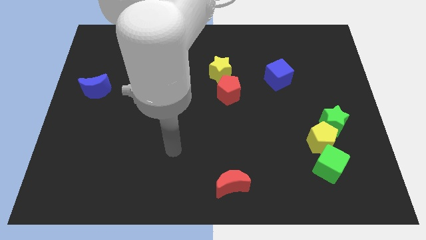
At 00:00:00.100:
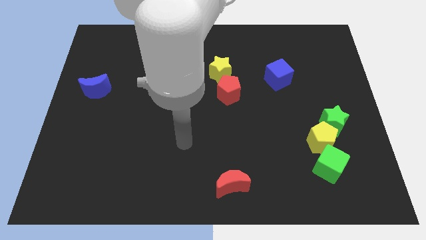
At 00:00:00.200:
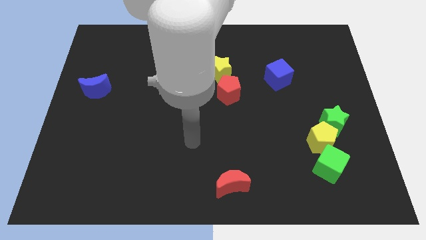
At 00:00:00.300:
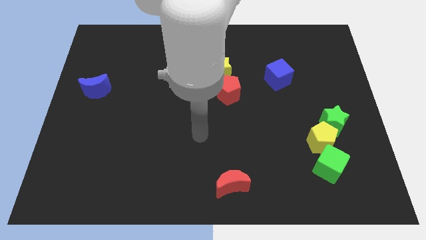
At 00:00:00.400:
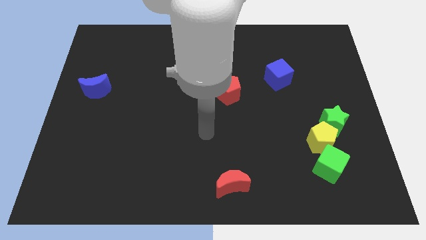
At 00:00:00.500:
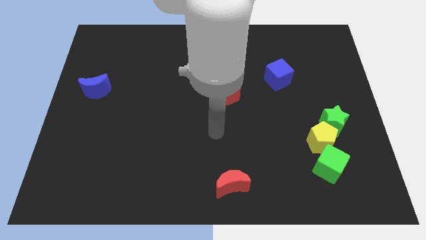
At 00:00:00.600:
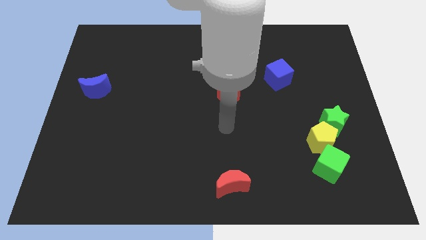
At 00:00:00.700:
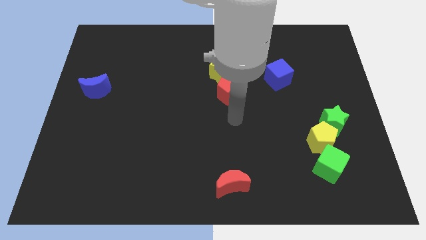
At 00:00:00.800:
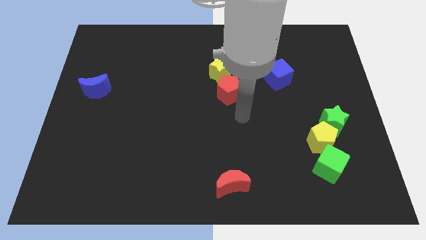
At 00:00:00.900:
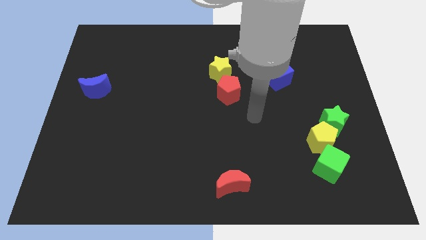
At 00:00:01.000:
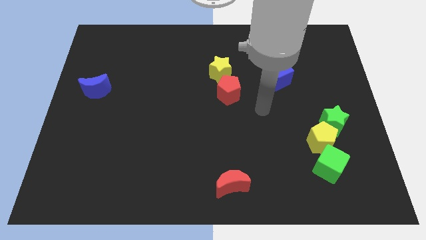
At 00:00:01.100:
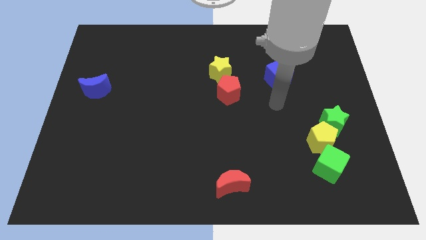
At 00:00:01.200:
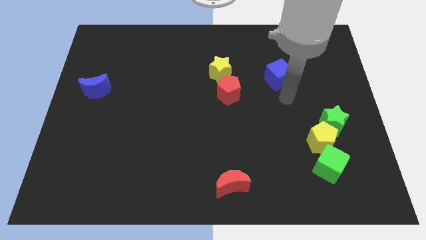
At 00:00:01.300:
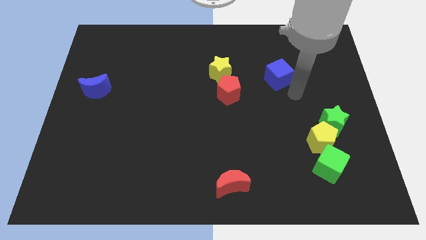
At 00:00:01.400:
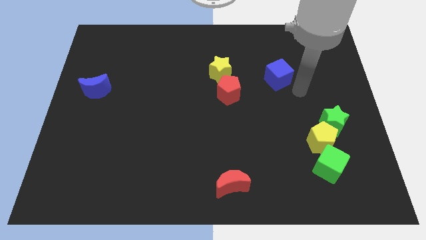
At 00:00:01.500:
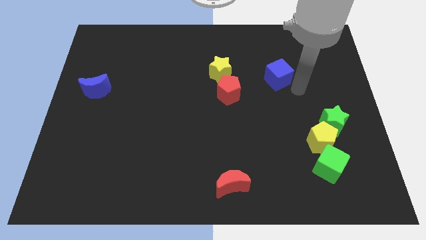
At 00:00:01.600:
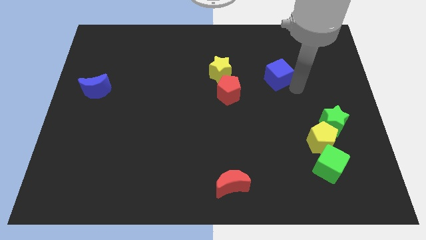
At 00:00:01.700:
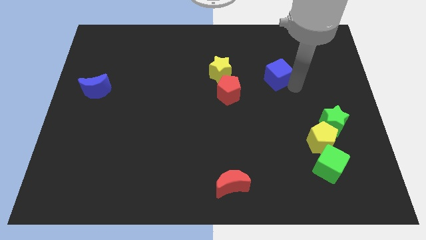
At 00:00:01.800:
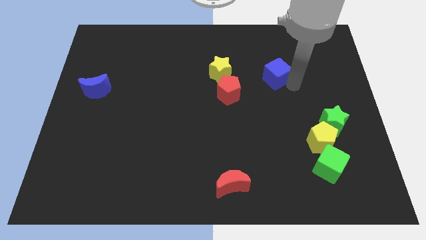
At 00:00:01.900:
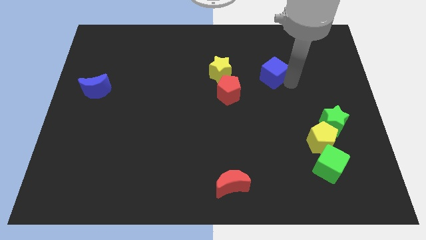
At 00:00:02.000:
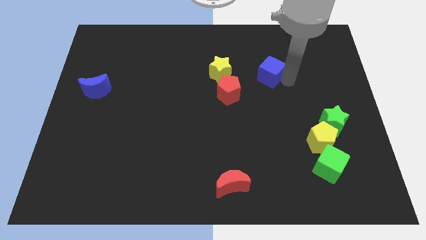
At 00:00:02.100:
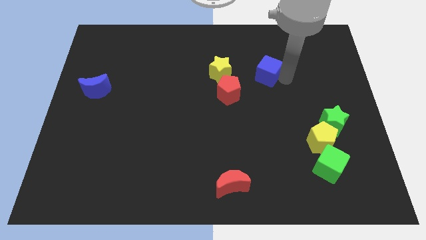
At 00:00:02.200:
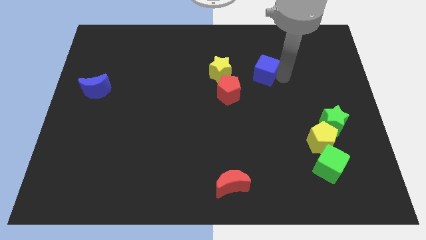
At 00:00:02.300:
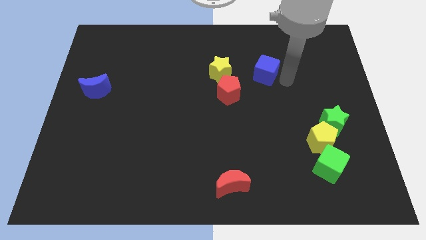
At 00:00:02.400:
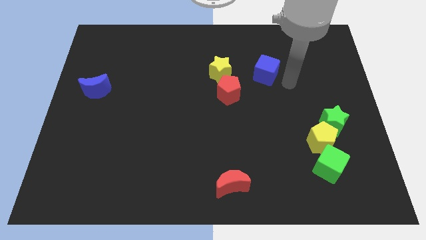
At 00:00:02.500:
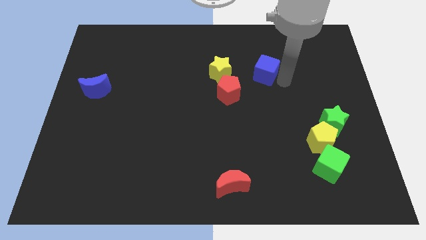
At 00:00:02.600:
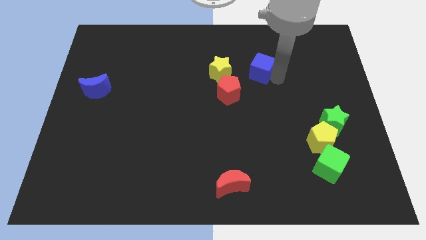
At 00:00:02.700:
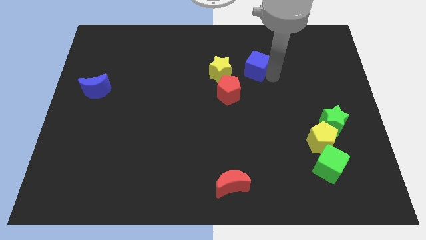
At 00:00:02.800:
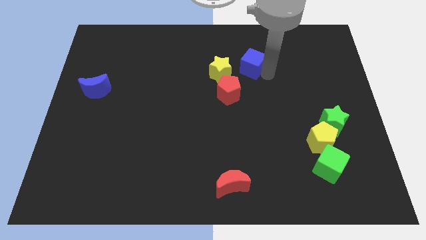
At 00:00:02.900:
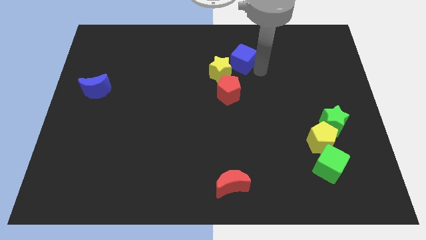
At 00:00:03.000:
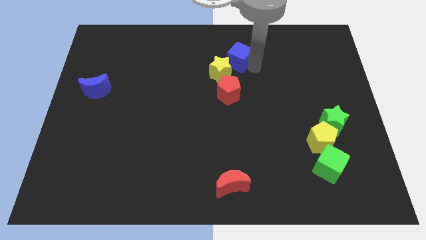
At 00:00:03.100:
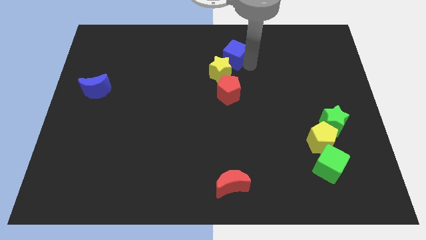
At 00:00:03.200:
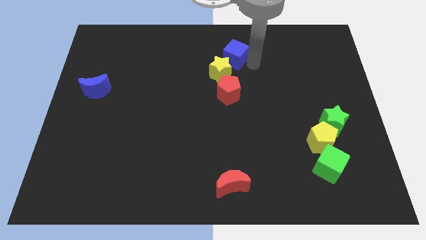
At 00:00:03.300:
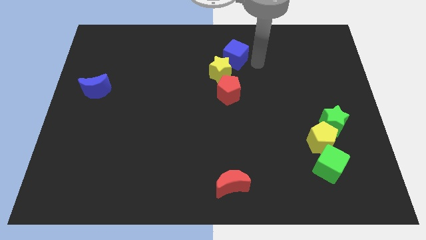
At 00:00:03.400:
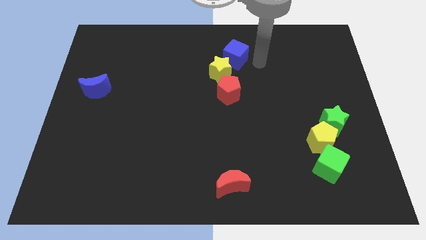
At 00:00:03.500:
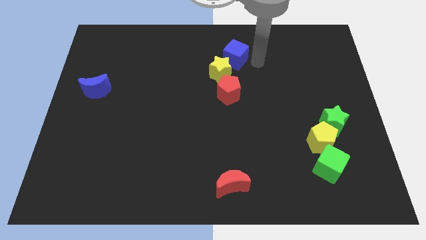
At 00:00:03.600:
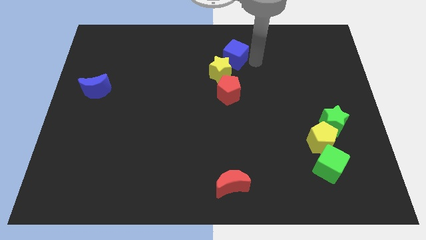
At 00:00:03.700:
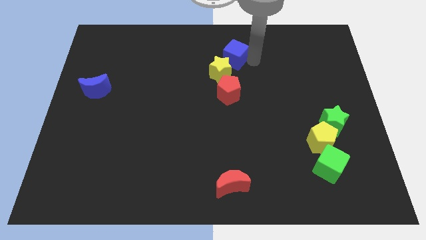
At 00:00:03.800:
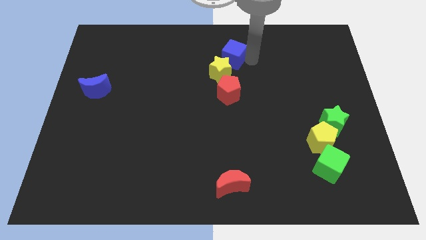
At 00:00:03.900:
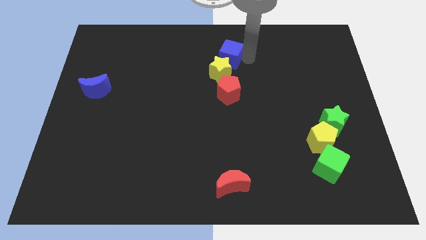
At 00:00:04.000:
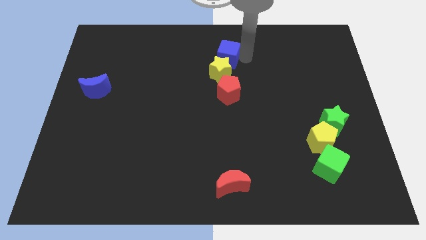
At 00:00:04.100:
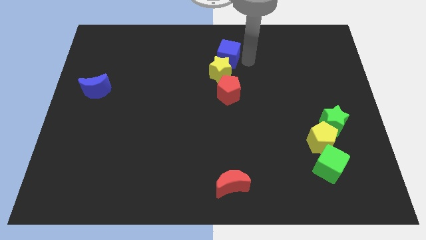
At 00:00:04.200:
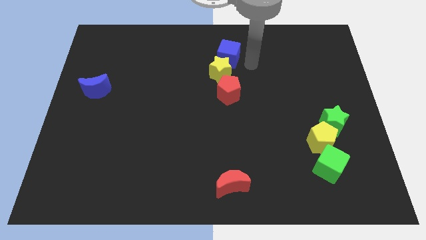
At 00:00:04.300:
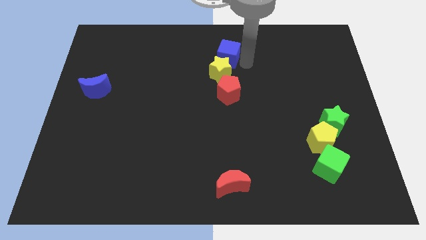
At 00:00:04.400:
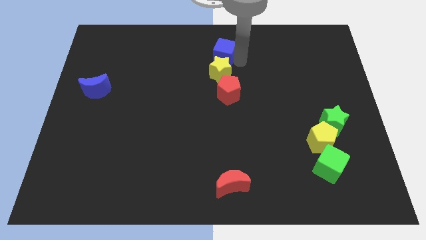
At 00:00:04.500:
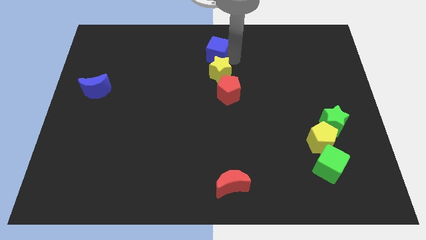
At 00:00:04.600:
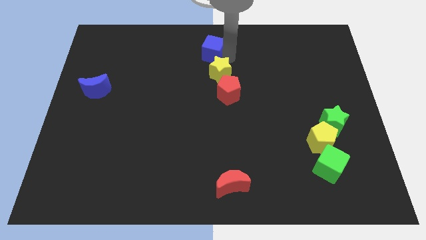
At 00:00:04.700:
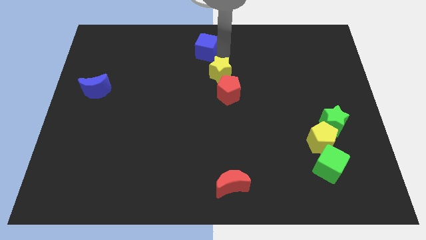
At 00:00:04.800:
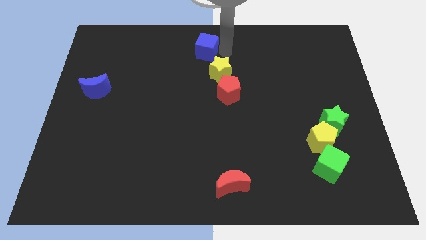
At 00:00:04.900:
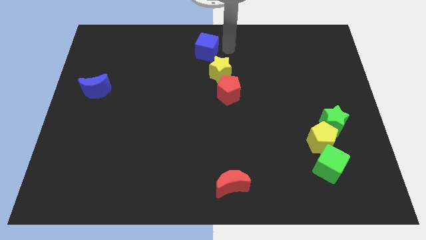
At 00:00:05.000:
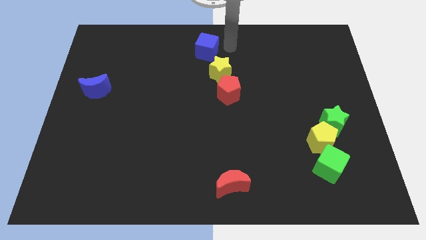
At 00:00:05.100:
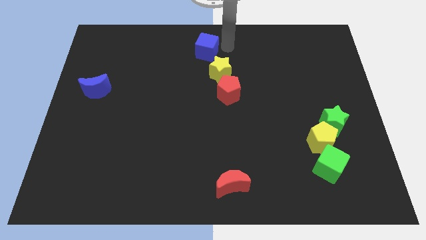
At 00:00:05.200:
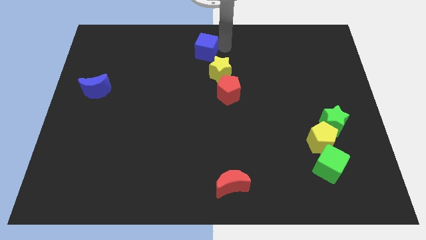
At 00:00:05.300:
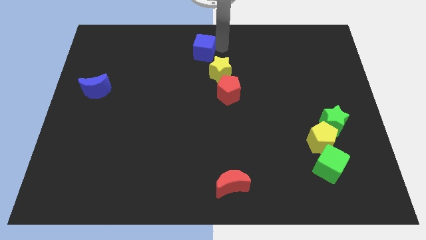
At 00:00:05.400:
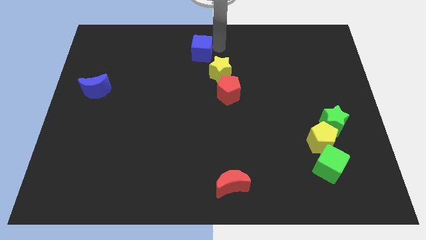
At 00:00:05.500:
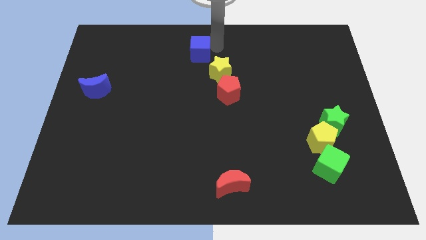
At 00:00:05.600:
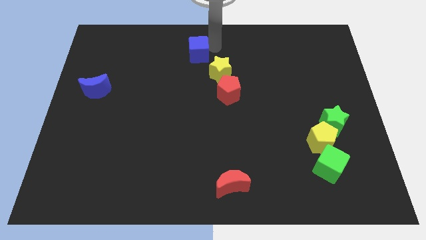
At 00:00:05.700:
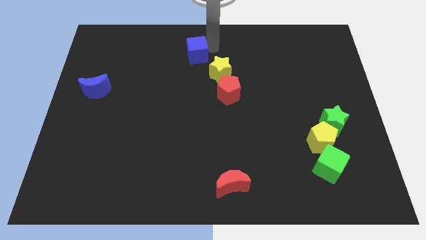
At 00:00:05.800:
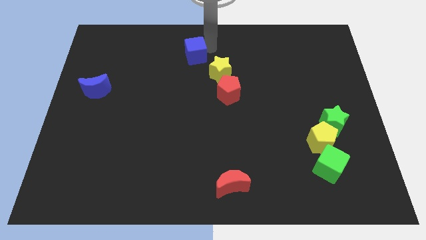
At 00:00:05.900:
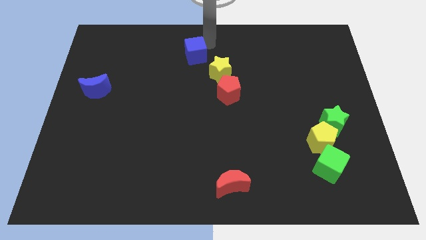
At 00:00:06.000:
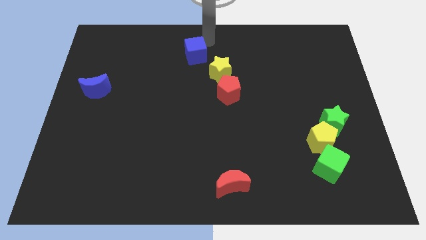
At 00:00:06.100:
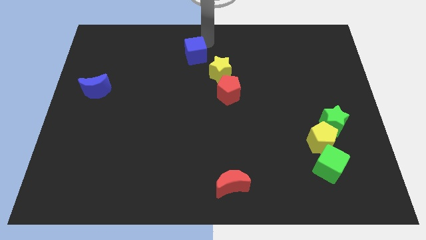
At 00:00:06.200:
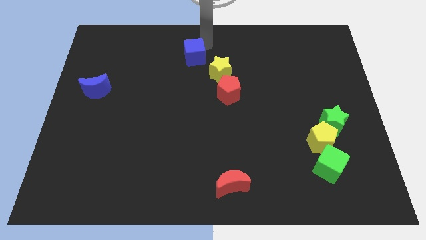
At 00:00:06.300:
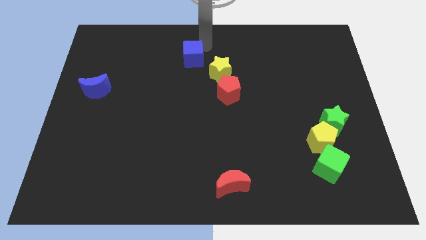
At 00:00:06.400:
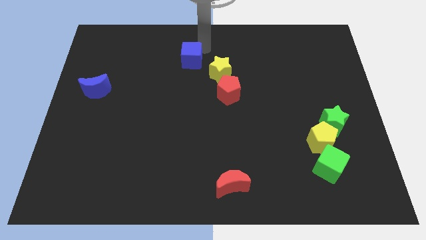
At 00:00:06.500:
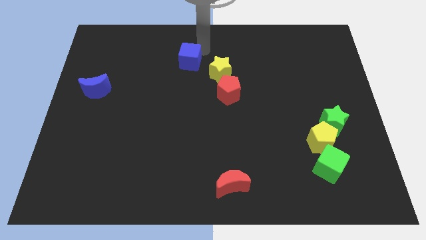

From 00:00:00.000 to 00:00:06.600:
slide the blue cube left of the yellow star

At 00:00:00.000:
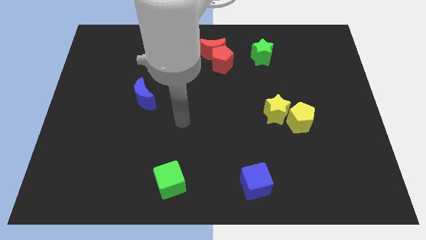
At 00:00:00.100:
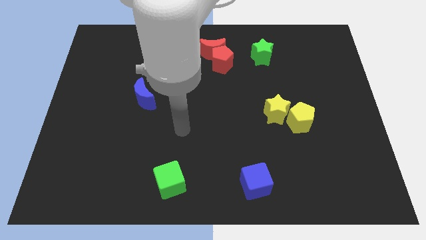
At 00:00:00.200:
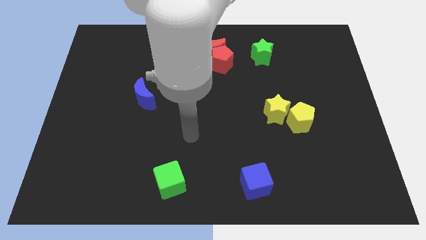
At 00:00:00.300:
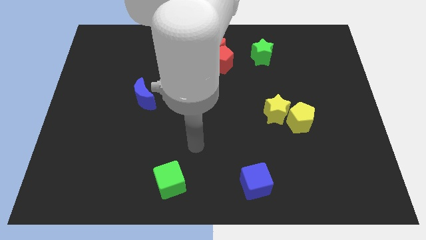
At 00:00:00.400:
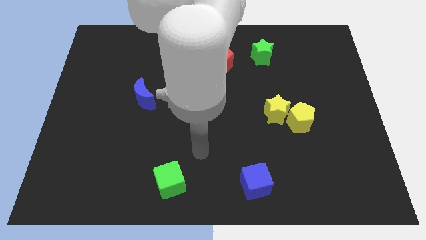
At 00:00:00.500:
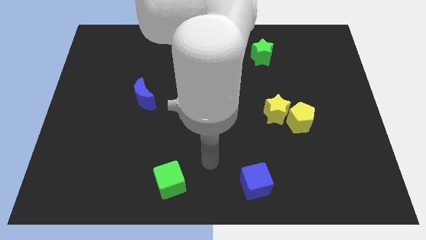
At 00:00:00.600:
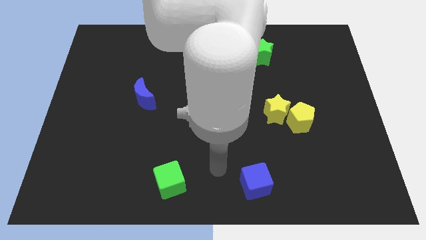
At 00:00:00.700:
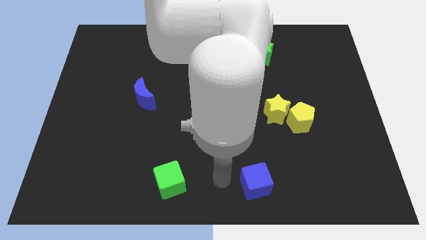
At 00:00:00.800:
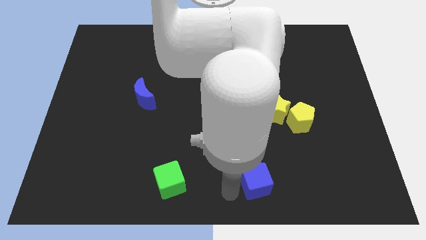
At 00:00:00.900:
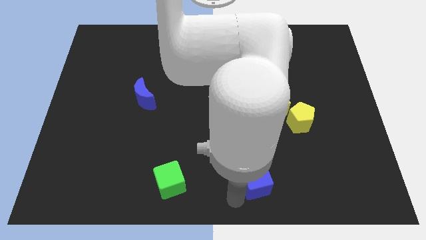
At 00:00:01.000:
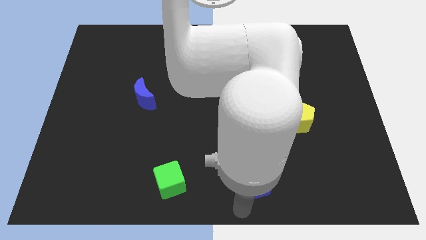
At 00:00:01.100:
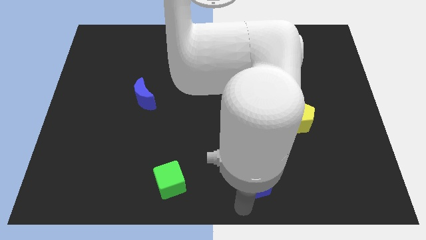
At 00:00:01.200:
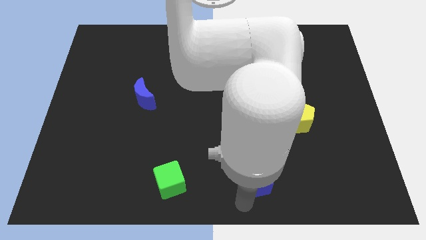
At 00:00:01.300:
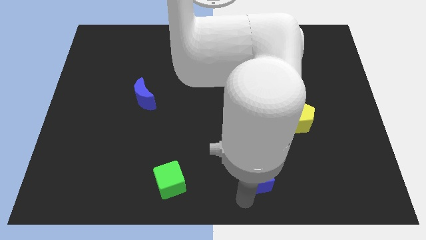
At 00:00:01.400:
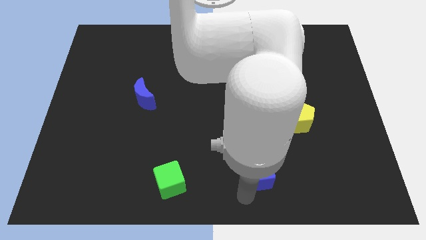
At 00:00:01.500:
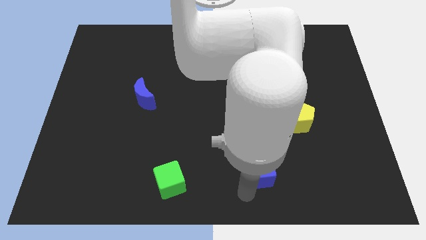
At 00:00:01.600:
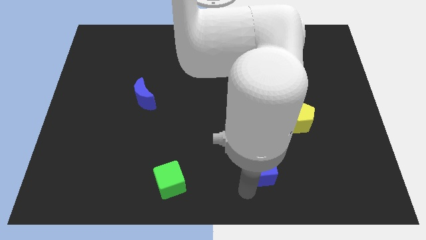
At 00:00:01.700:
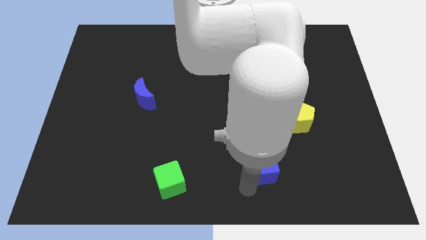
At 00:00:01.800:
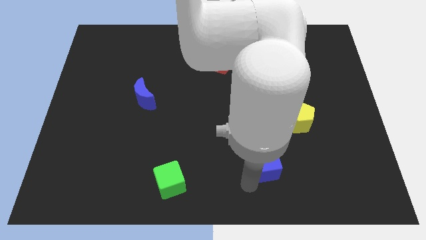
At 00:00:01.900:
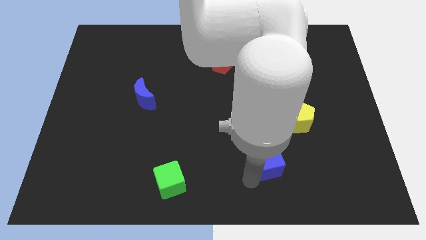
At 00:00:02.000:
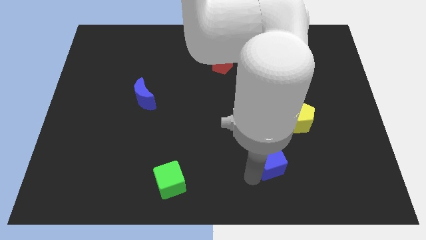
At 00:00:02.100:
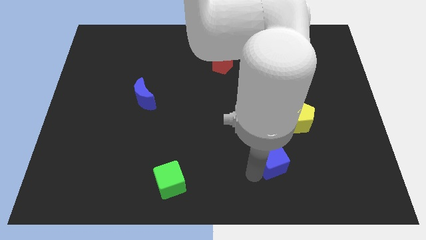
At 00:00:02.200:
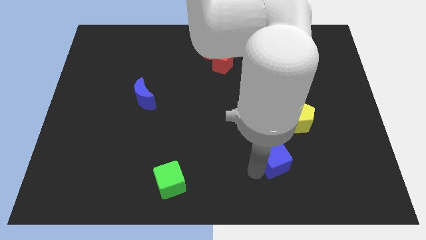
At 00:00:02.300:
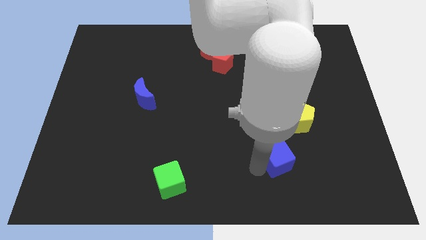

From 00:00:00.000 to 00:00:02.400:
put the blue cube to the bottom left of the yellow pentagon
